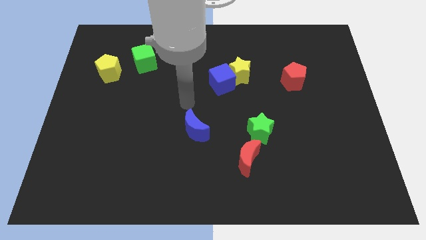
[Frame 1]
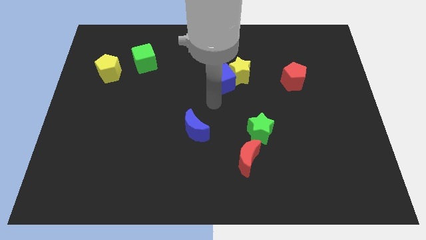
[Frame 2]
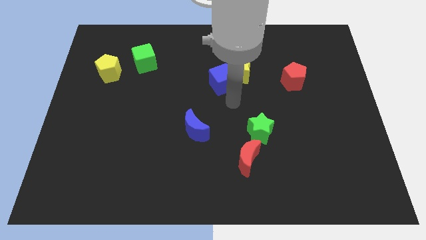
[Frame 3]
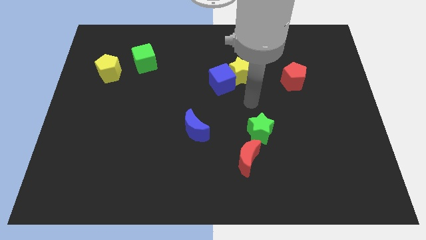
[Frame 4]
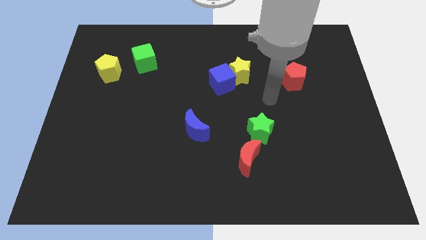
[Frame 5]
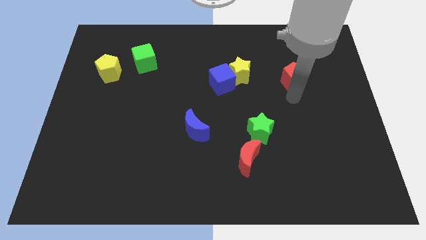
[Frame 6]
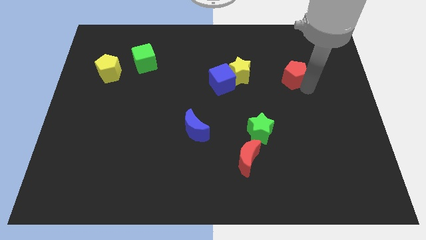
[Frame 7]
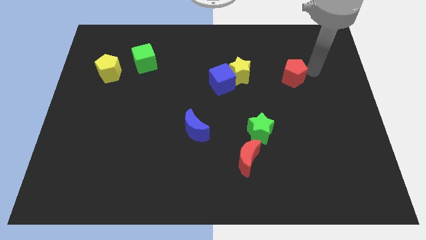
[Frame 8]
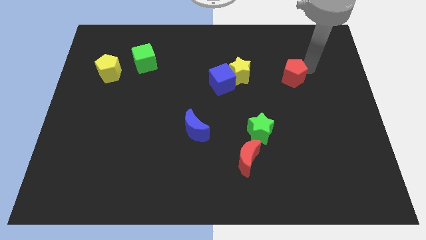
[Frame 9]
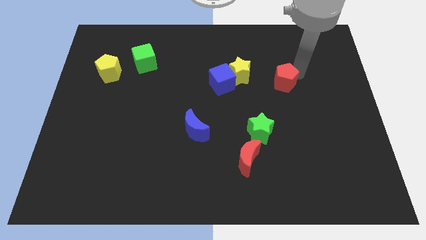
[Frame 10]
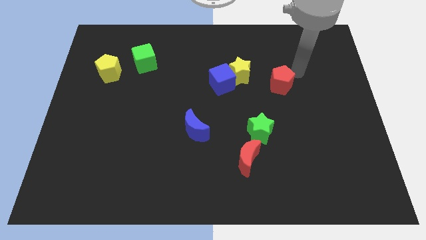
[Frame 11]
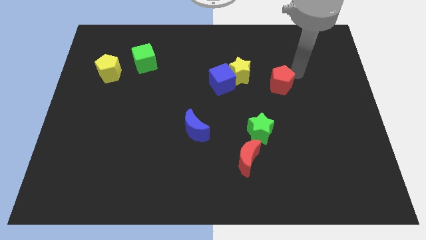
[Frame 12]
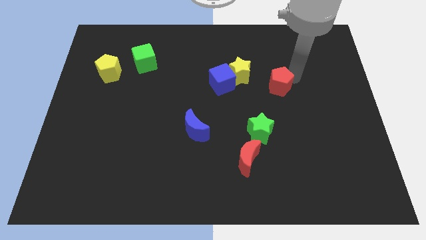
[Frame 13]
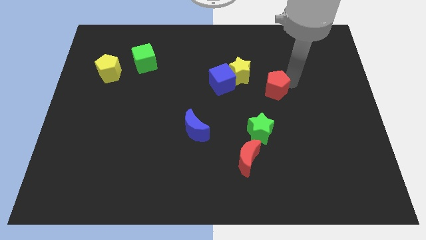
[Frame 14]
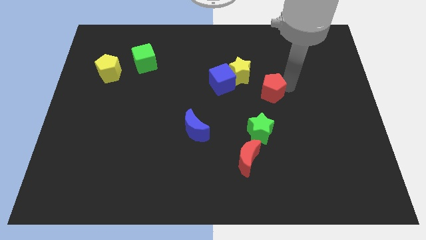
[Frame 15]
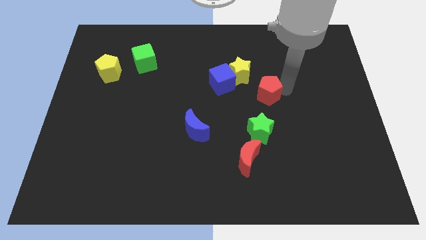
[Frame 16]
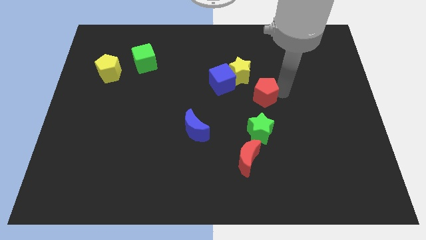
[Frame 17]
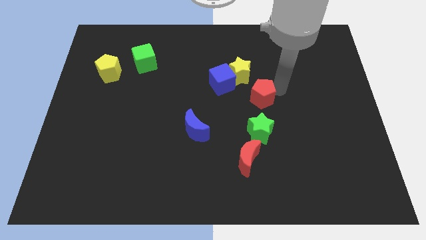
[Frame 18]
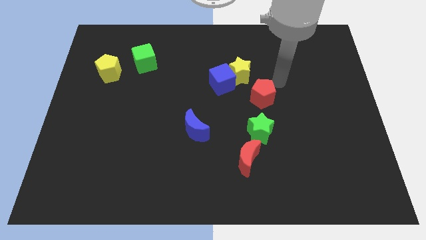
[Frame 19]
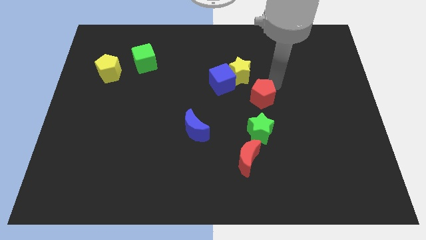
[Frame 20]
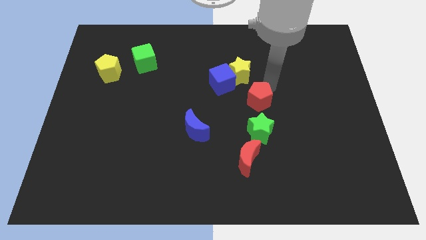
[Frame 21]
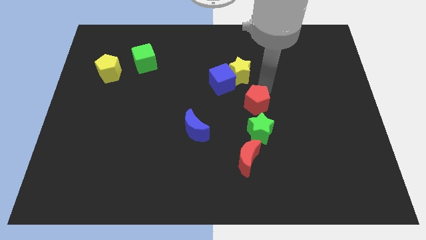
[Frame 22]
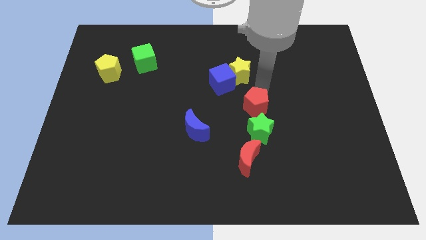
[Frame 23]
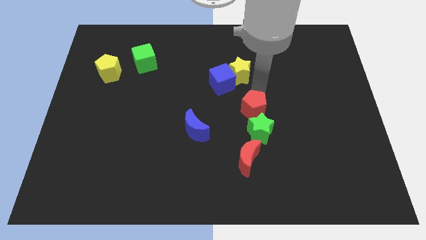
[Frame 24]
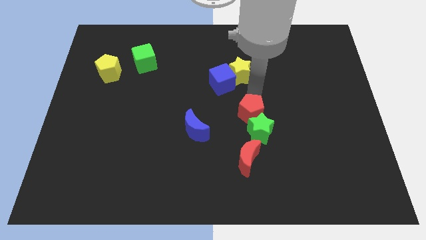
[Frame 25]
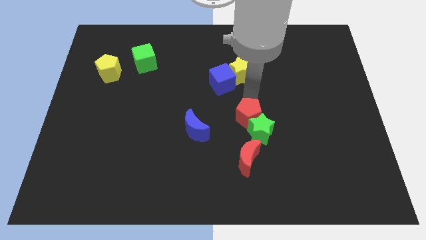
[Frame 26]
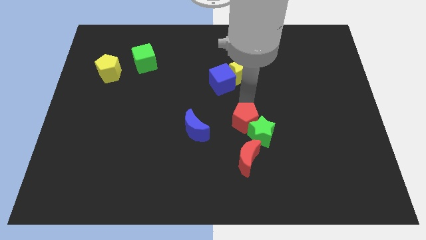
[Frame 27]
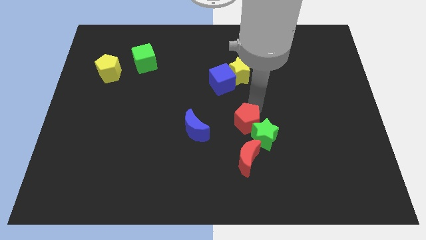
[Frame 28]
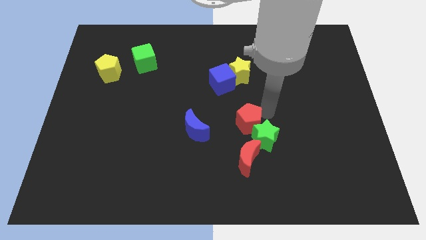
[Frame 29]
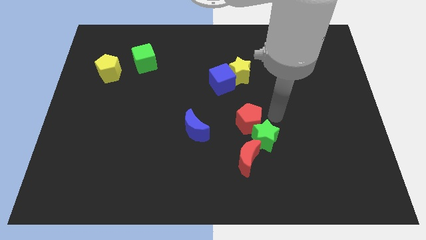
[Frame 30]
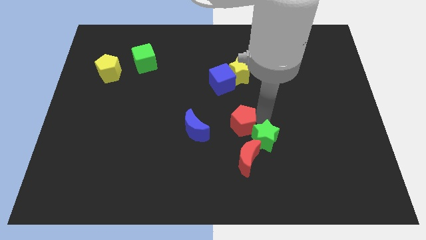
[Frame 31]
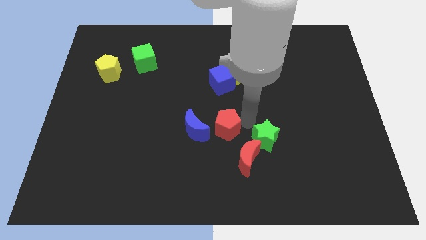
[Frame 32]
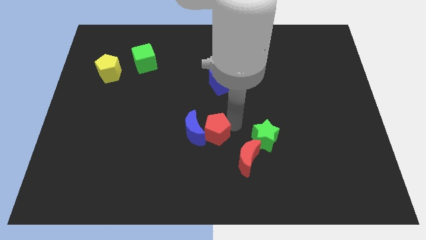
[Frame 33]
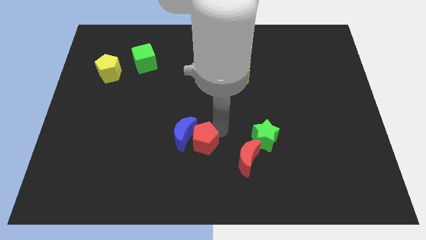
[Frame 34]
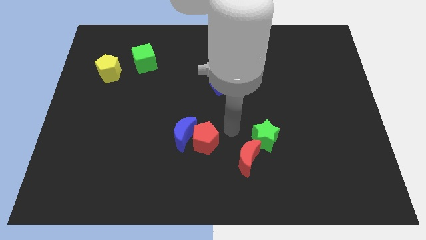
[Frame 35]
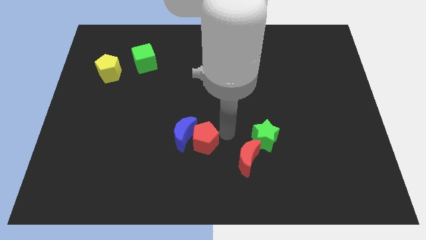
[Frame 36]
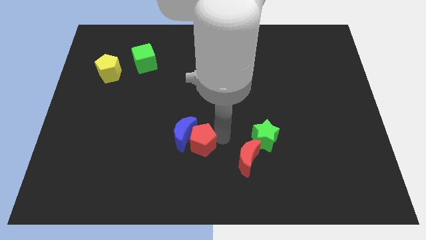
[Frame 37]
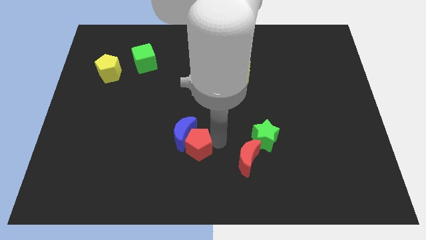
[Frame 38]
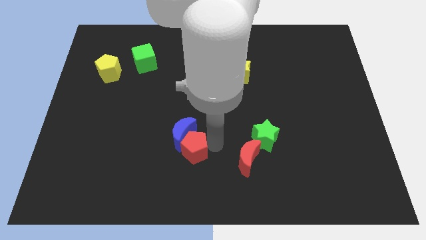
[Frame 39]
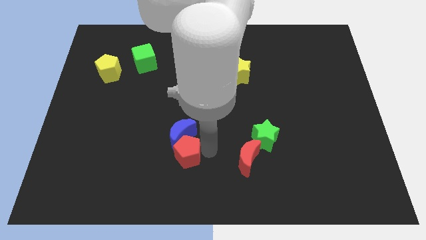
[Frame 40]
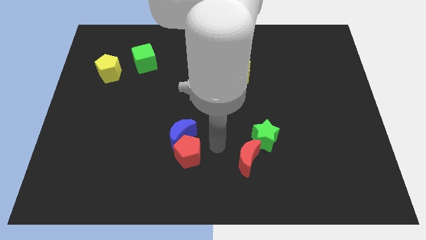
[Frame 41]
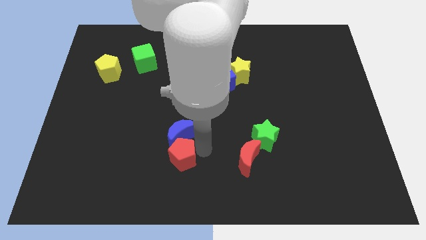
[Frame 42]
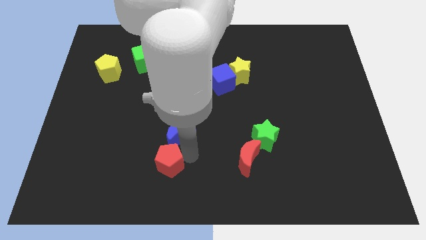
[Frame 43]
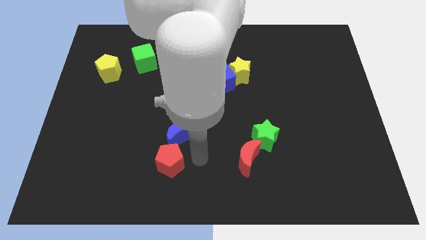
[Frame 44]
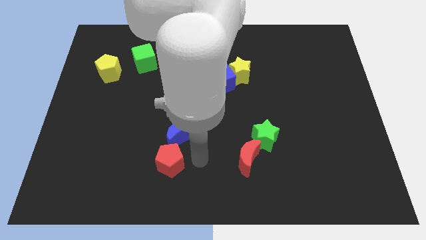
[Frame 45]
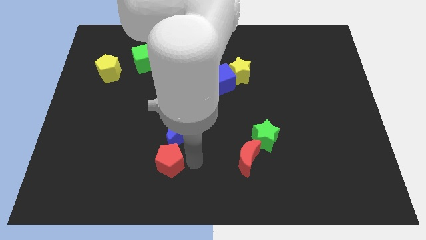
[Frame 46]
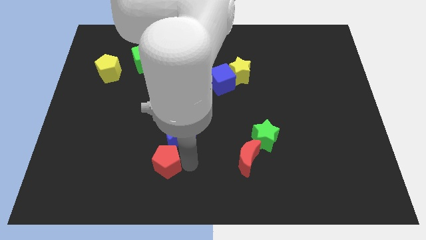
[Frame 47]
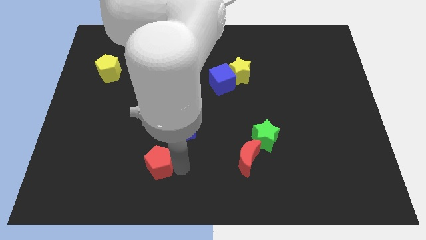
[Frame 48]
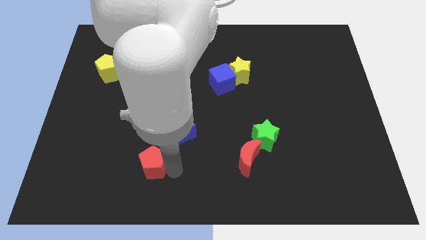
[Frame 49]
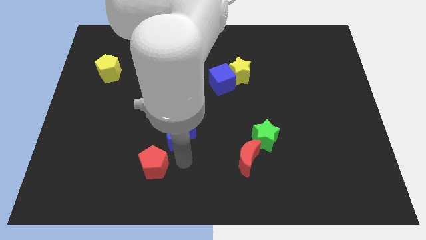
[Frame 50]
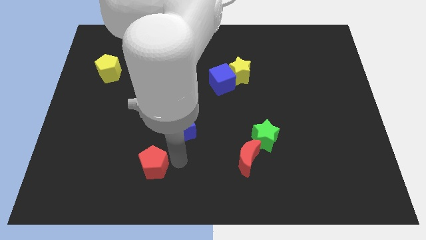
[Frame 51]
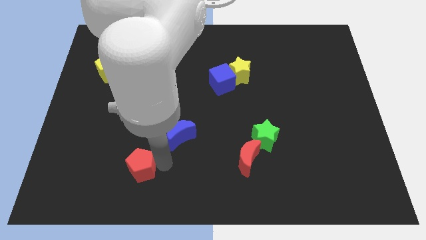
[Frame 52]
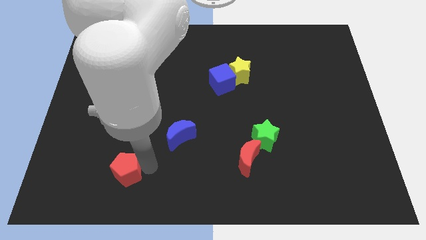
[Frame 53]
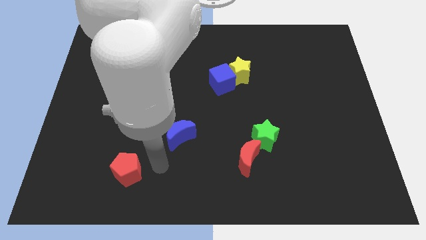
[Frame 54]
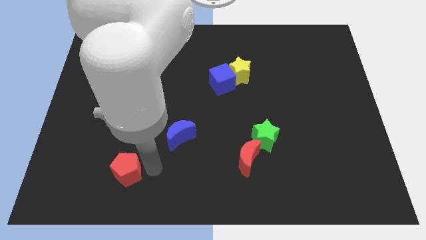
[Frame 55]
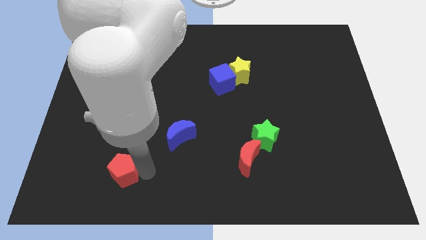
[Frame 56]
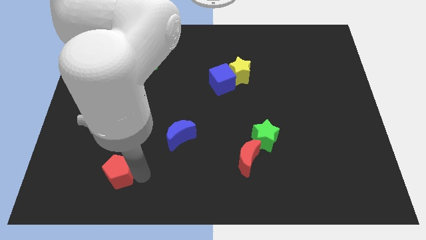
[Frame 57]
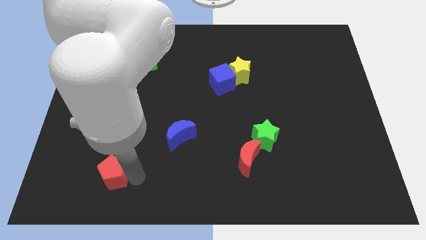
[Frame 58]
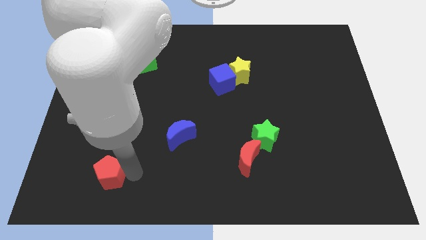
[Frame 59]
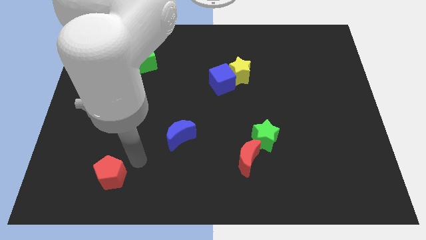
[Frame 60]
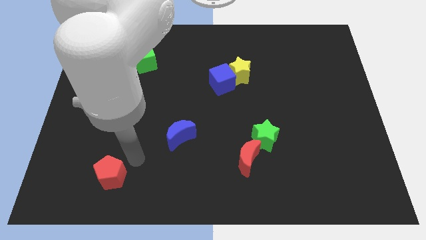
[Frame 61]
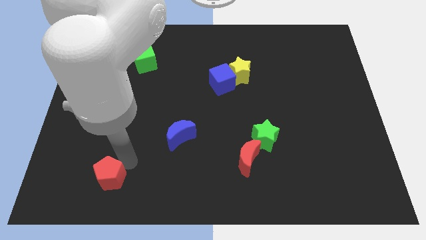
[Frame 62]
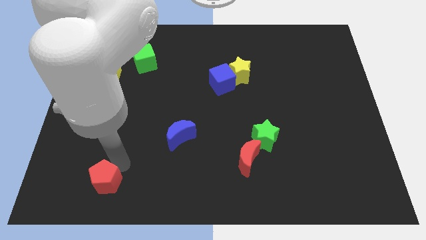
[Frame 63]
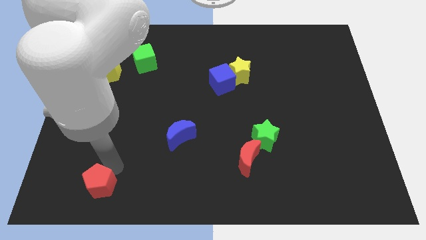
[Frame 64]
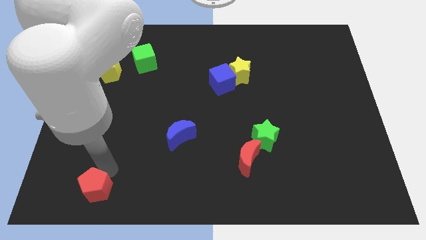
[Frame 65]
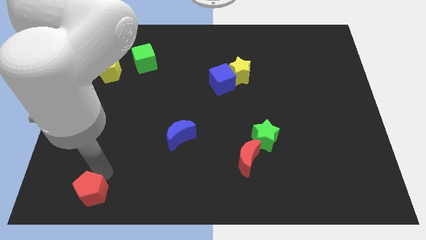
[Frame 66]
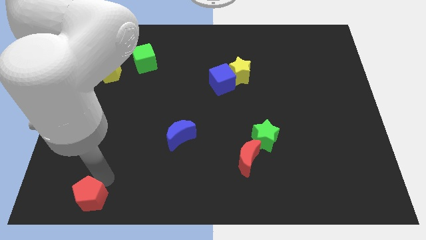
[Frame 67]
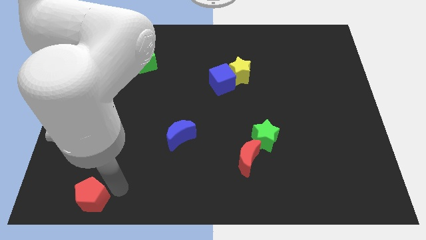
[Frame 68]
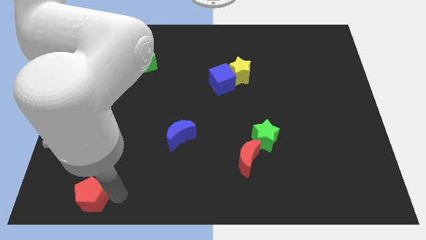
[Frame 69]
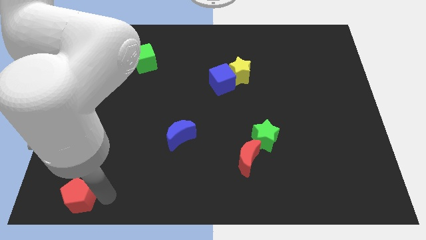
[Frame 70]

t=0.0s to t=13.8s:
put the red pentagon to the bottom left of the board

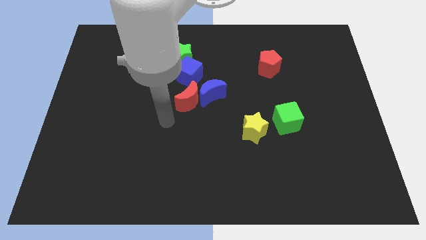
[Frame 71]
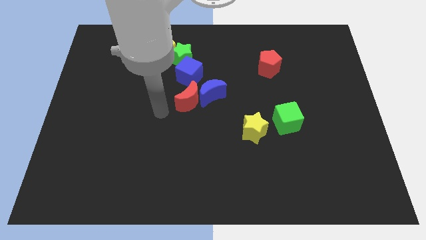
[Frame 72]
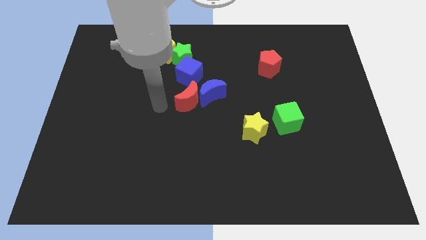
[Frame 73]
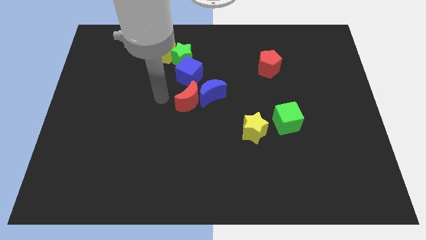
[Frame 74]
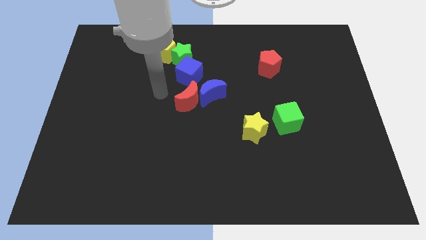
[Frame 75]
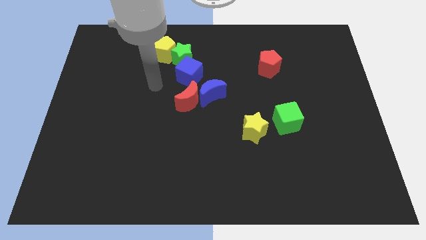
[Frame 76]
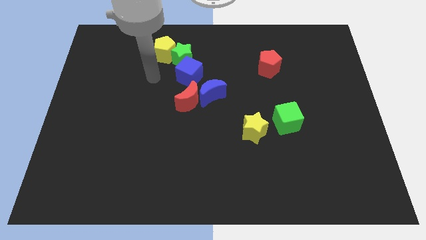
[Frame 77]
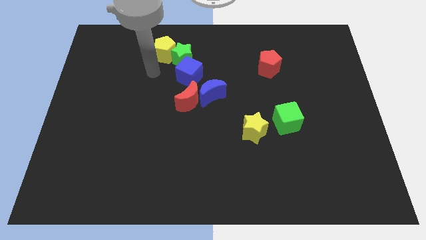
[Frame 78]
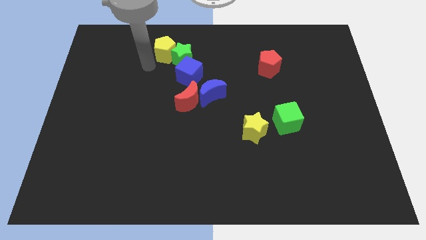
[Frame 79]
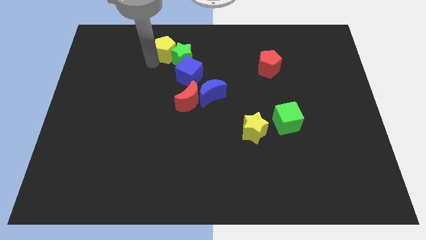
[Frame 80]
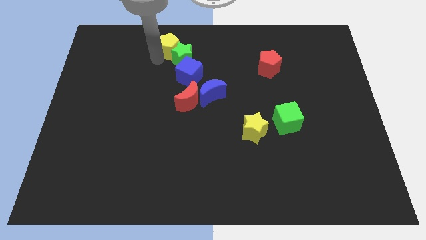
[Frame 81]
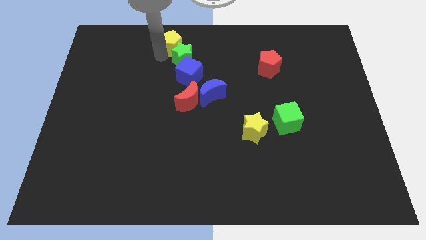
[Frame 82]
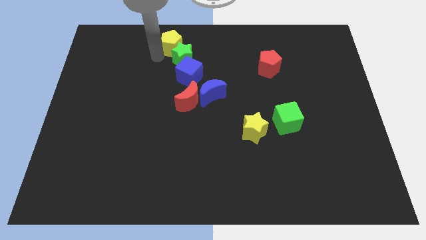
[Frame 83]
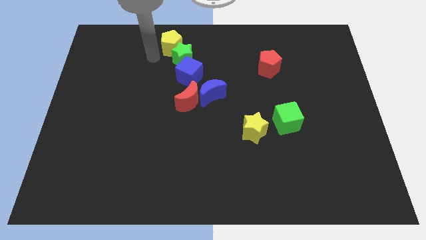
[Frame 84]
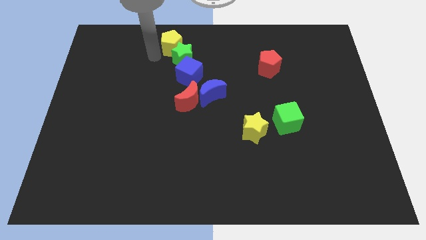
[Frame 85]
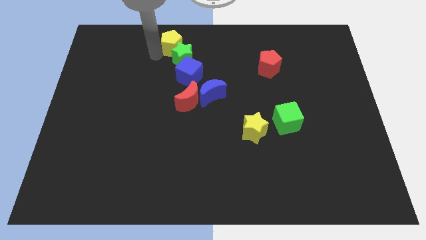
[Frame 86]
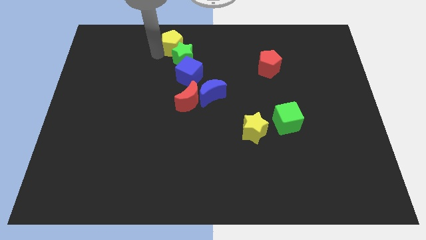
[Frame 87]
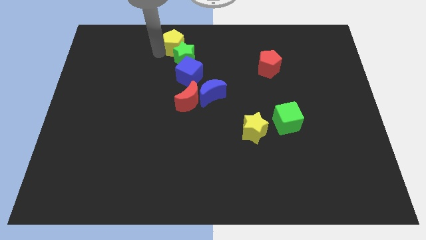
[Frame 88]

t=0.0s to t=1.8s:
push the yellow pentagon to the top side
